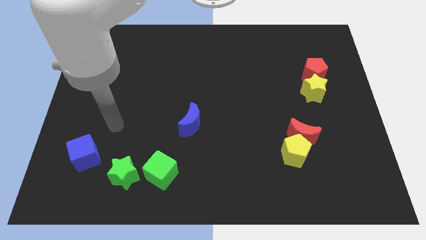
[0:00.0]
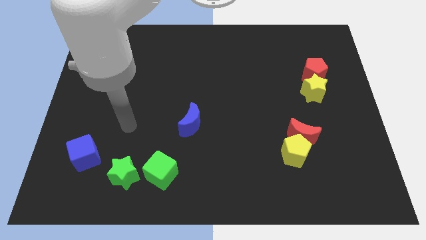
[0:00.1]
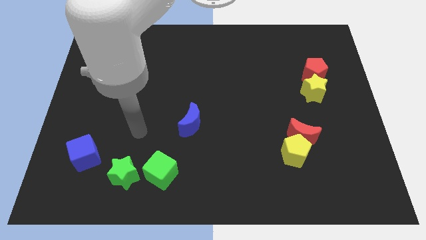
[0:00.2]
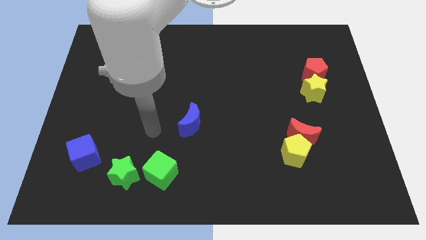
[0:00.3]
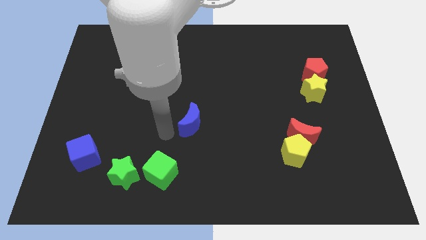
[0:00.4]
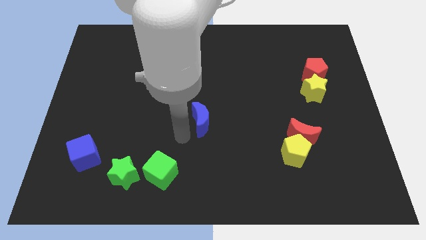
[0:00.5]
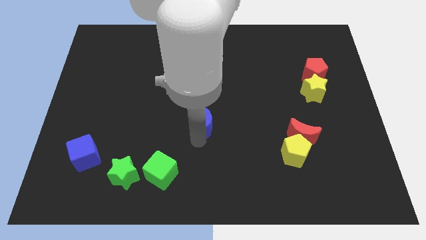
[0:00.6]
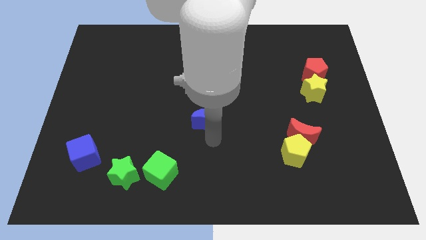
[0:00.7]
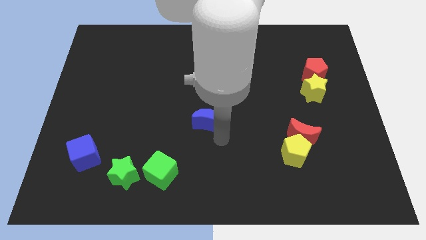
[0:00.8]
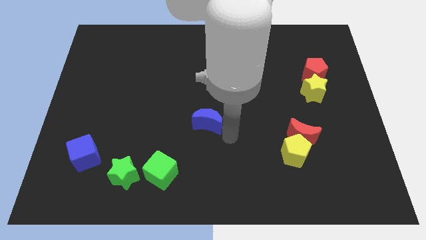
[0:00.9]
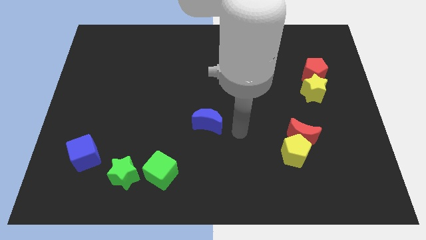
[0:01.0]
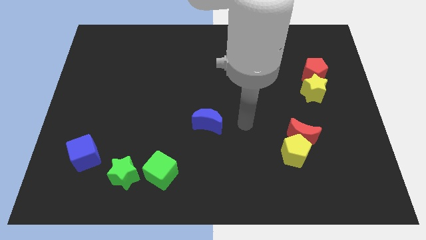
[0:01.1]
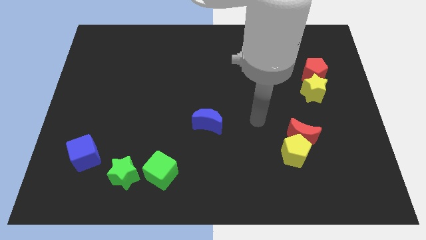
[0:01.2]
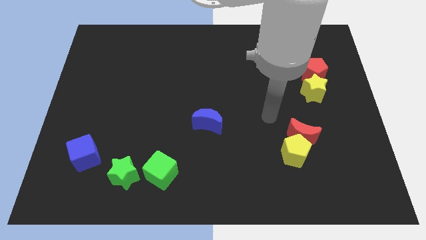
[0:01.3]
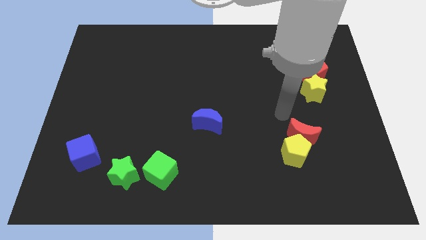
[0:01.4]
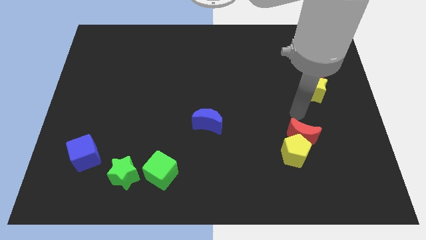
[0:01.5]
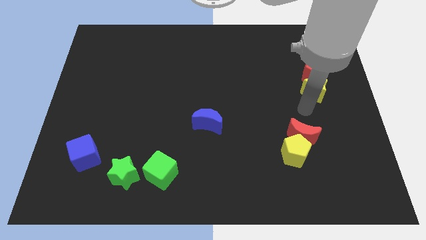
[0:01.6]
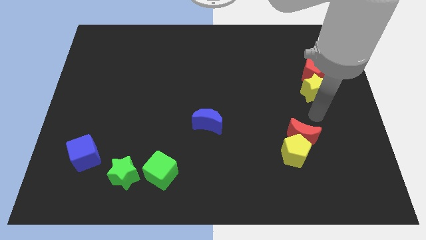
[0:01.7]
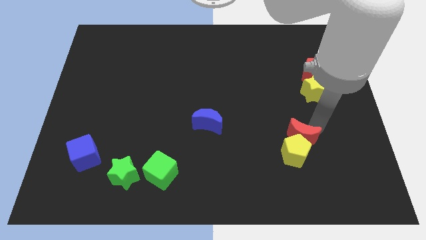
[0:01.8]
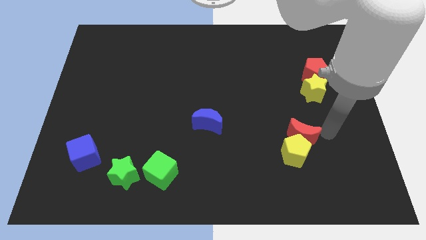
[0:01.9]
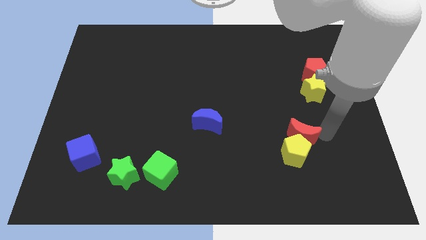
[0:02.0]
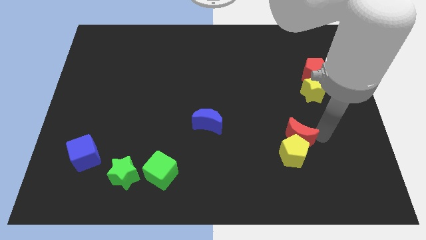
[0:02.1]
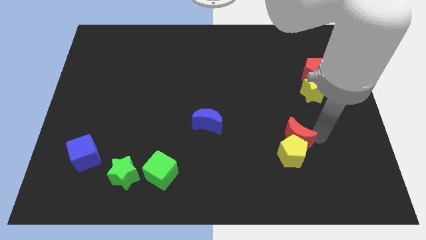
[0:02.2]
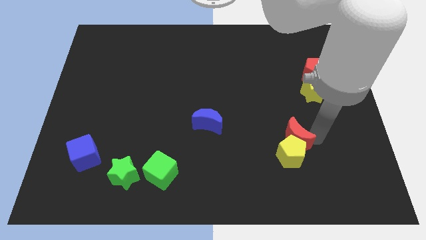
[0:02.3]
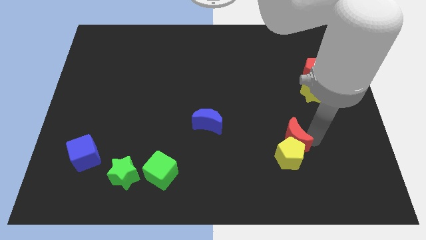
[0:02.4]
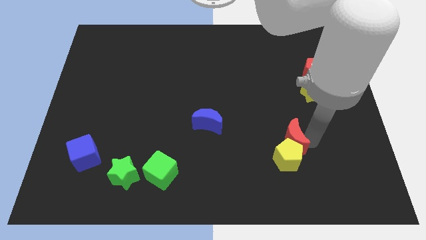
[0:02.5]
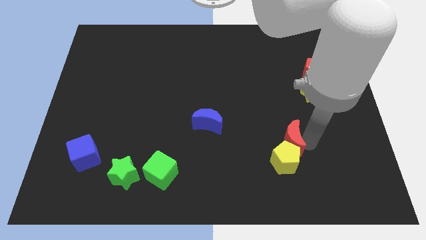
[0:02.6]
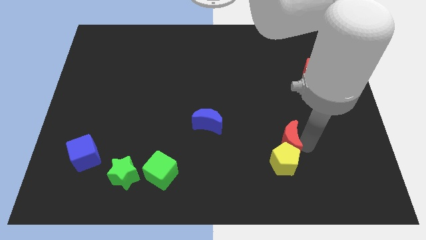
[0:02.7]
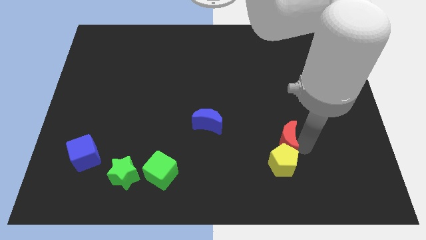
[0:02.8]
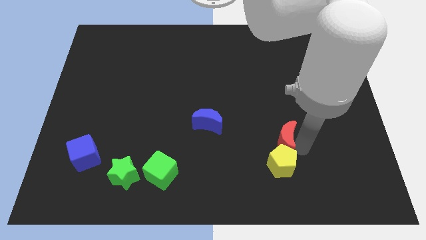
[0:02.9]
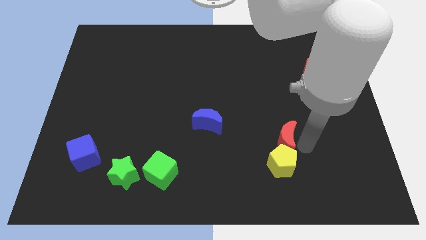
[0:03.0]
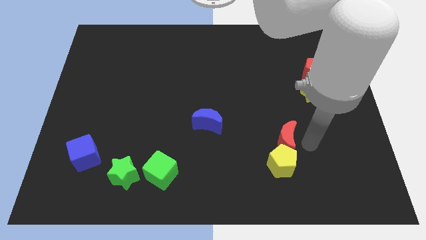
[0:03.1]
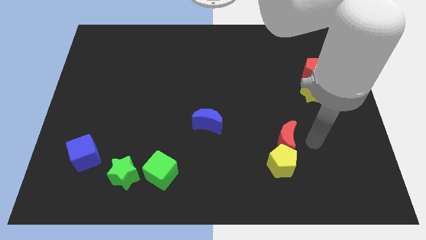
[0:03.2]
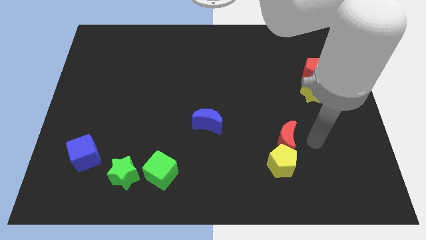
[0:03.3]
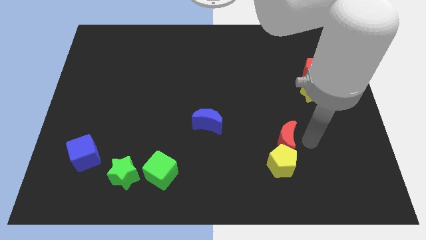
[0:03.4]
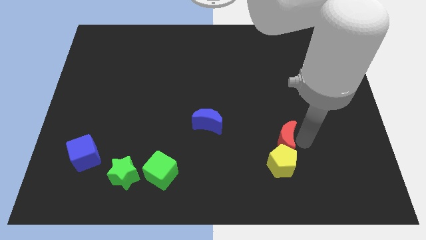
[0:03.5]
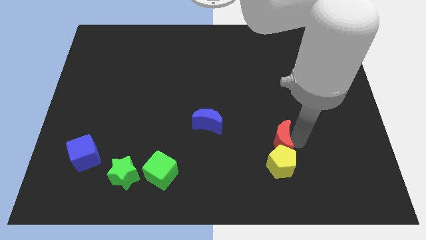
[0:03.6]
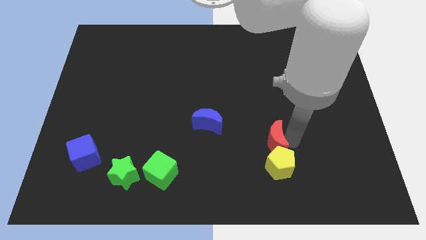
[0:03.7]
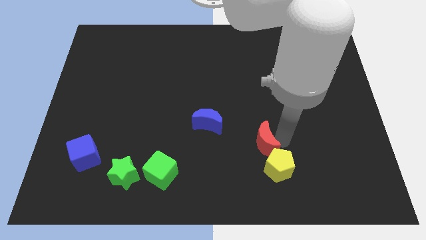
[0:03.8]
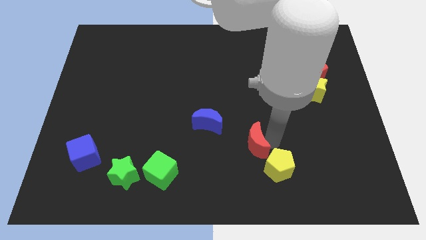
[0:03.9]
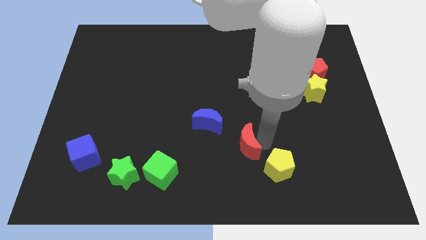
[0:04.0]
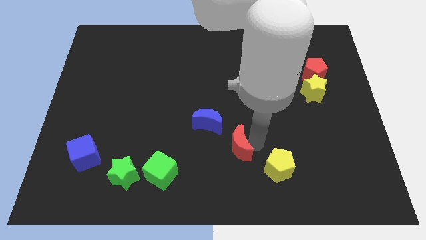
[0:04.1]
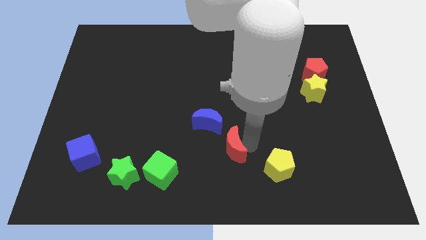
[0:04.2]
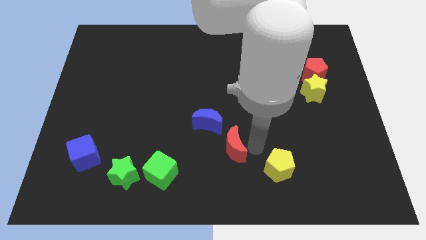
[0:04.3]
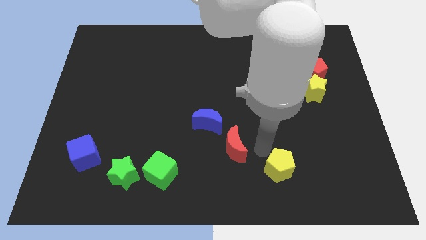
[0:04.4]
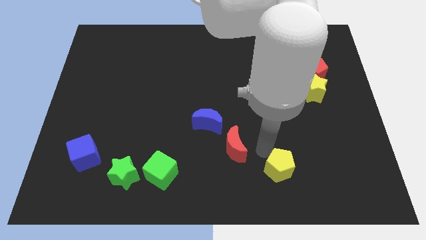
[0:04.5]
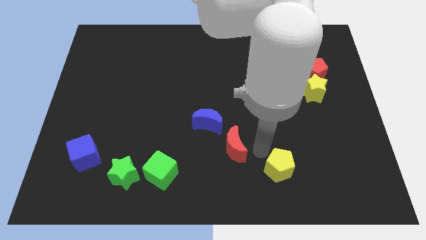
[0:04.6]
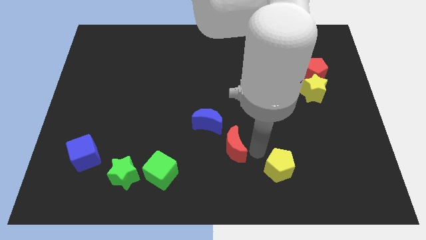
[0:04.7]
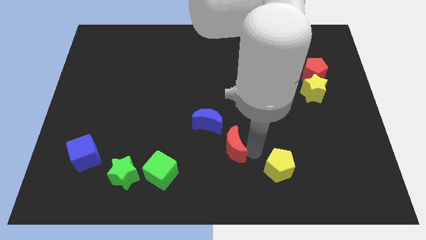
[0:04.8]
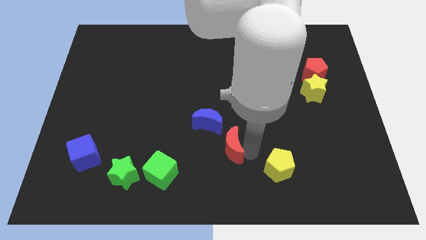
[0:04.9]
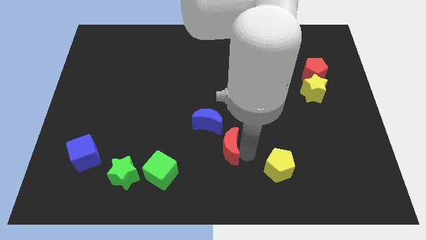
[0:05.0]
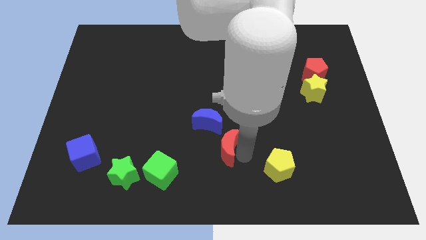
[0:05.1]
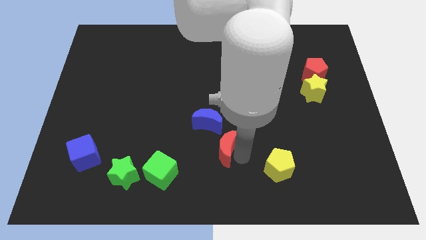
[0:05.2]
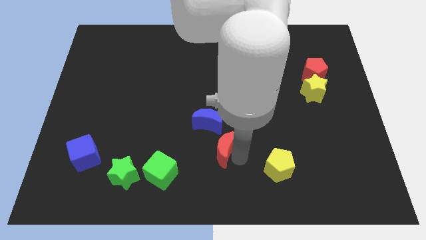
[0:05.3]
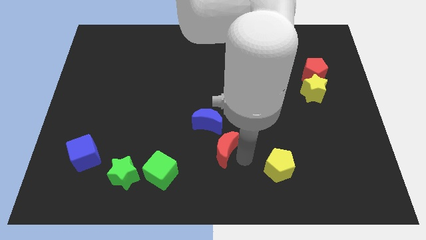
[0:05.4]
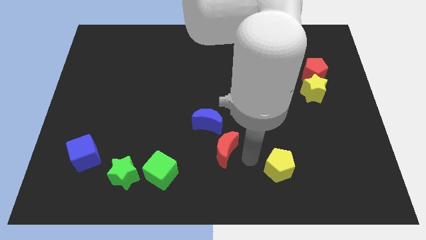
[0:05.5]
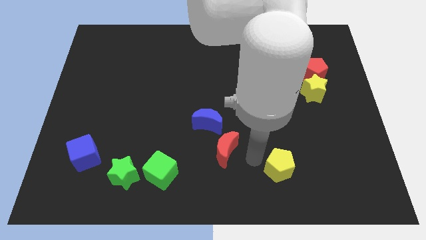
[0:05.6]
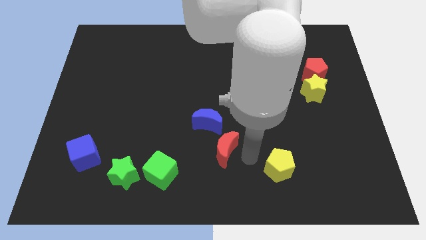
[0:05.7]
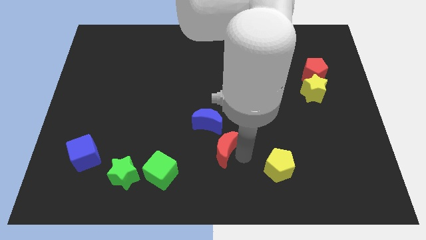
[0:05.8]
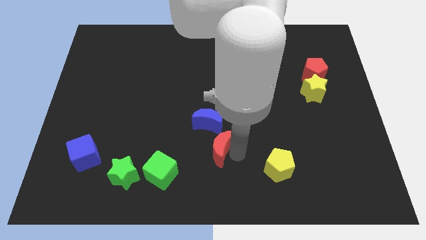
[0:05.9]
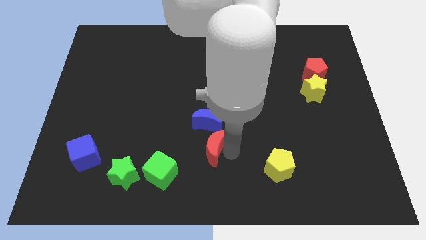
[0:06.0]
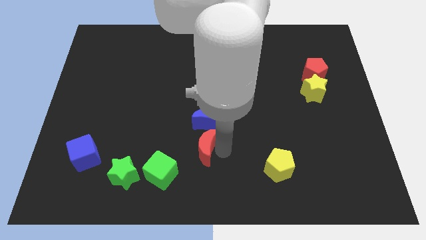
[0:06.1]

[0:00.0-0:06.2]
push the red moon left

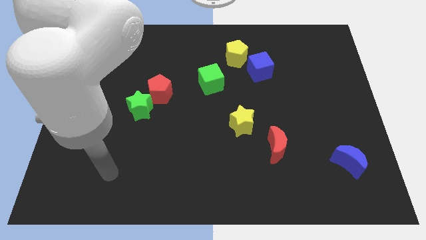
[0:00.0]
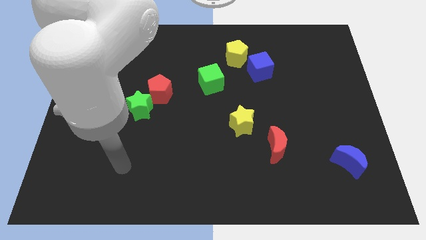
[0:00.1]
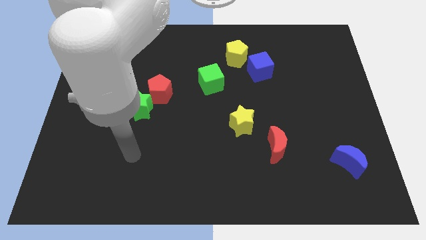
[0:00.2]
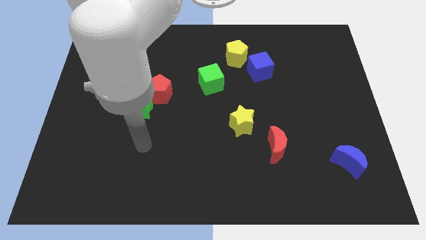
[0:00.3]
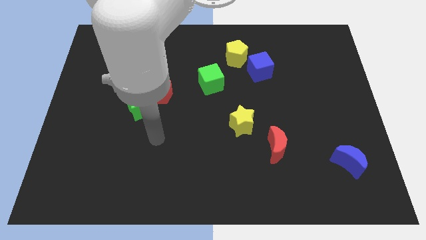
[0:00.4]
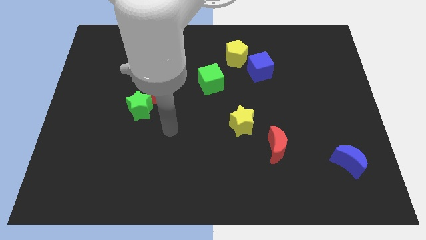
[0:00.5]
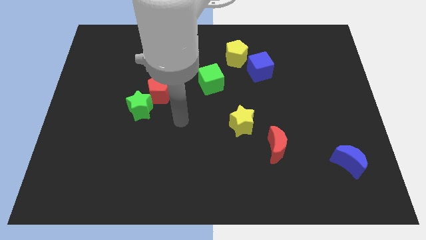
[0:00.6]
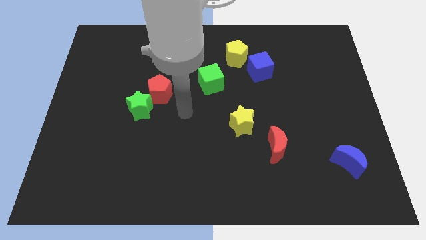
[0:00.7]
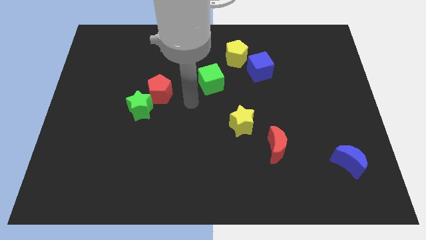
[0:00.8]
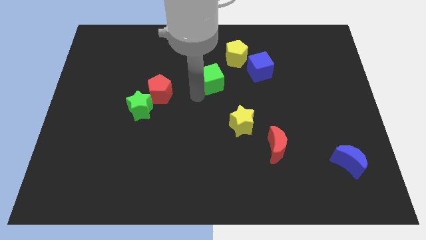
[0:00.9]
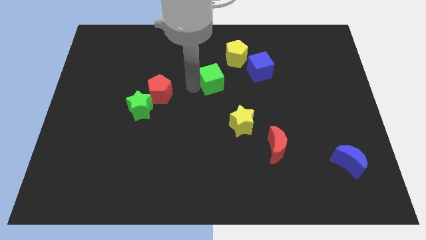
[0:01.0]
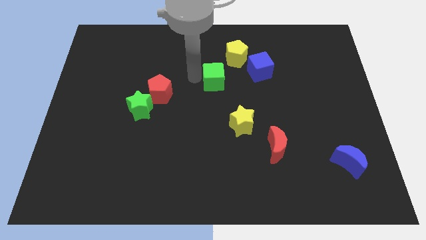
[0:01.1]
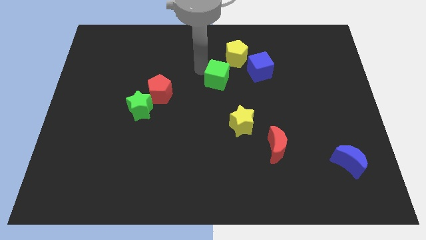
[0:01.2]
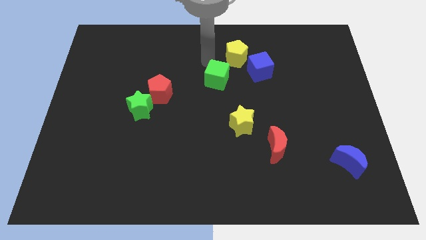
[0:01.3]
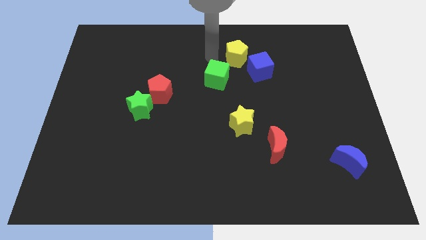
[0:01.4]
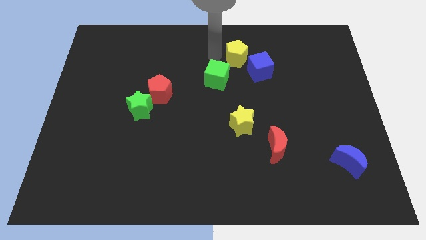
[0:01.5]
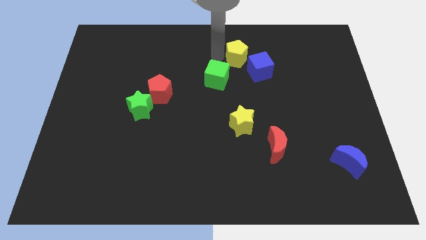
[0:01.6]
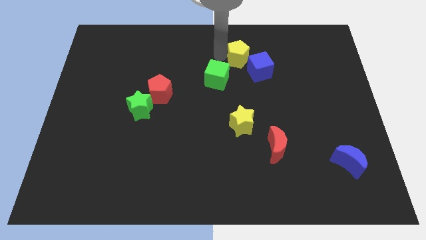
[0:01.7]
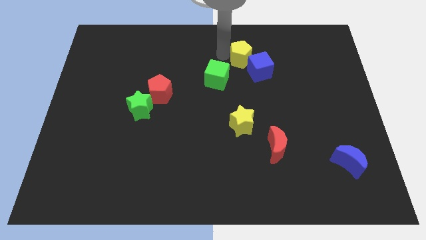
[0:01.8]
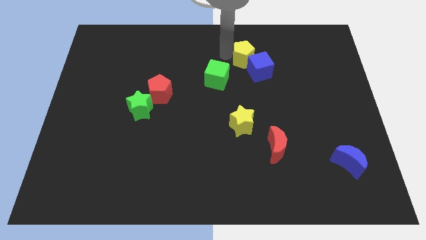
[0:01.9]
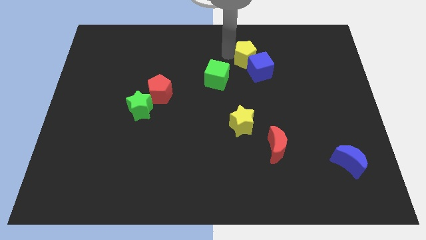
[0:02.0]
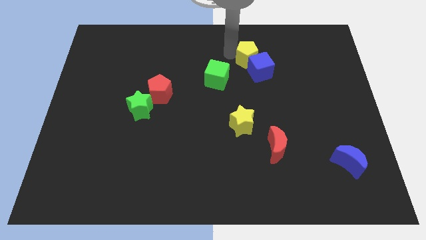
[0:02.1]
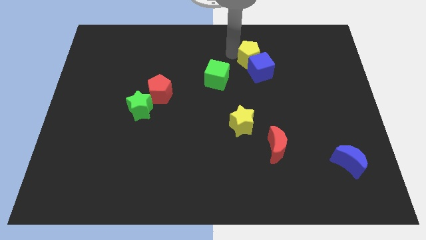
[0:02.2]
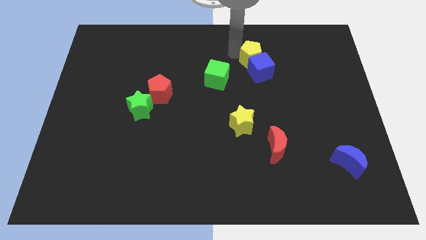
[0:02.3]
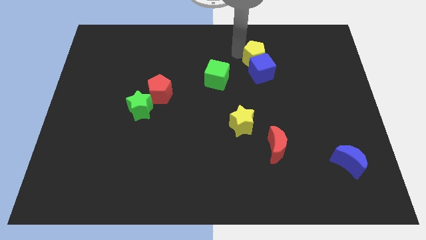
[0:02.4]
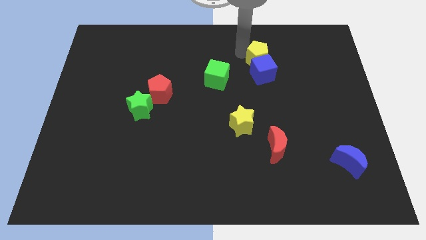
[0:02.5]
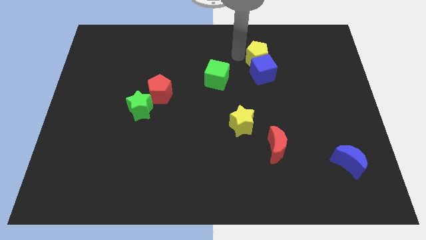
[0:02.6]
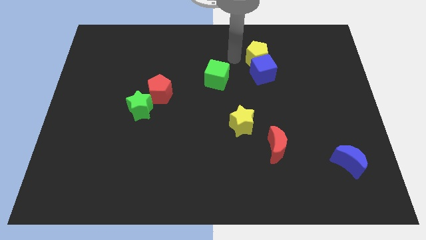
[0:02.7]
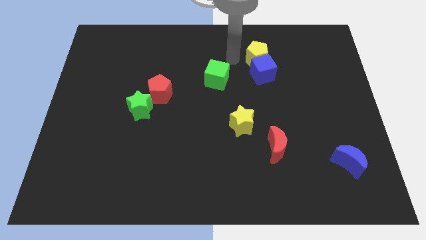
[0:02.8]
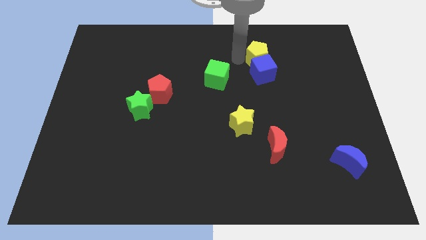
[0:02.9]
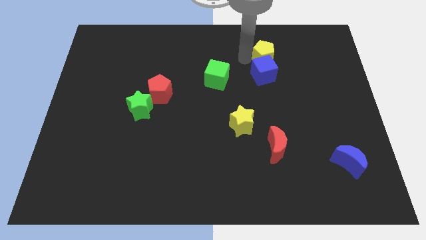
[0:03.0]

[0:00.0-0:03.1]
slightly move the yellow pentagon right
